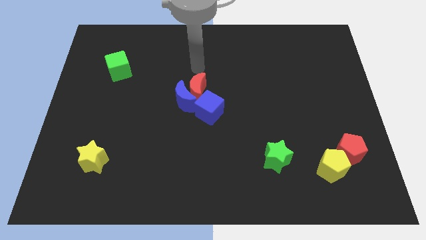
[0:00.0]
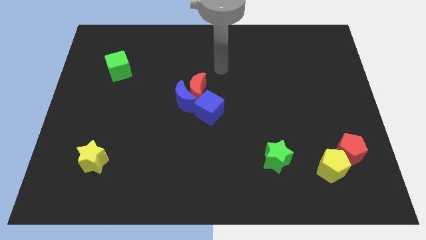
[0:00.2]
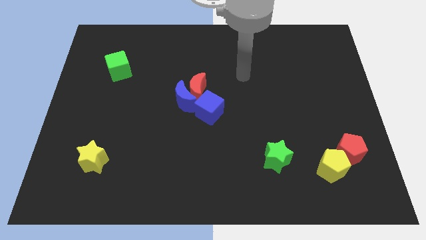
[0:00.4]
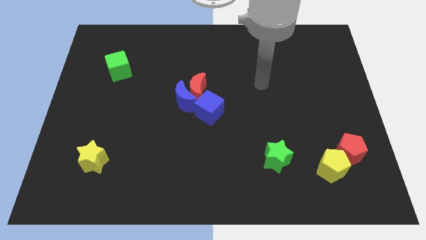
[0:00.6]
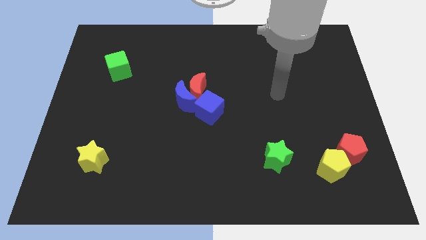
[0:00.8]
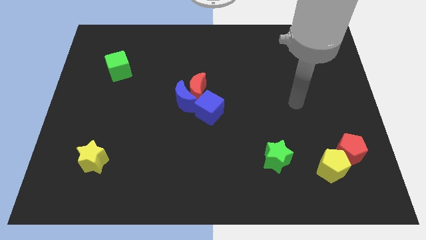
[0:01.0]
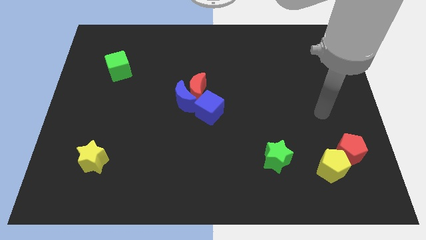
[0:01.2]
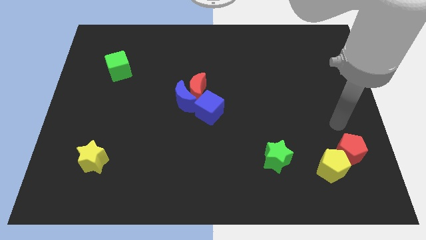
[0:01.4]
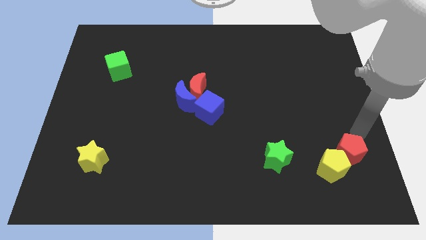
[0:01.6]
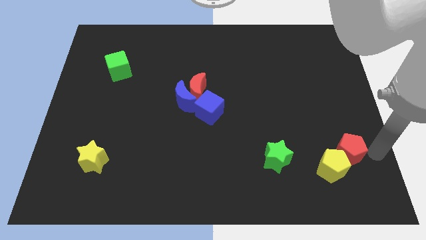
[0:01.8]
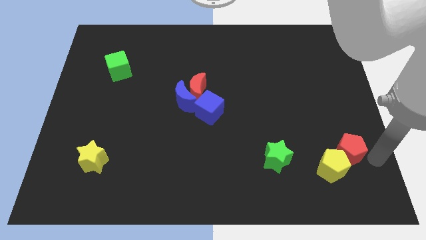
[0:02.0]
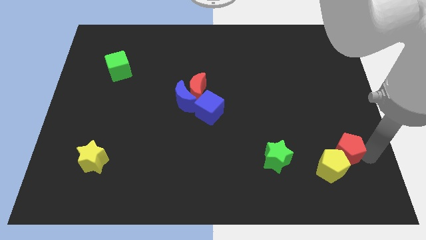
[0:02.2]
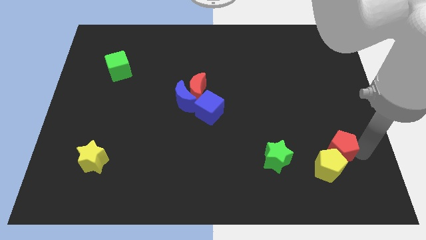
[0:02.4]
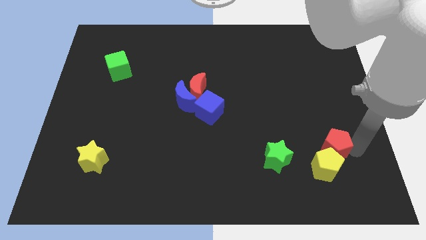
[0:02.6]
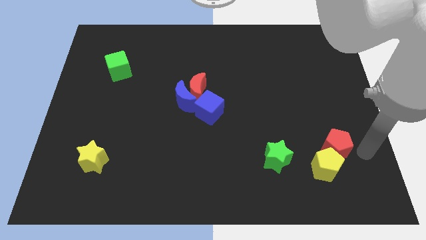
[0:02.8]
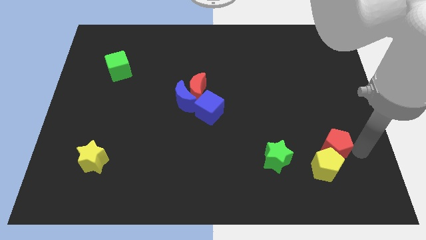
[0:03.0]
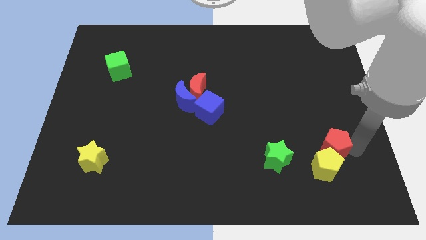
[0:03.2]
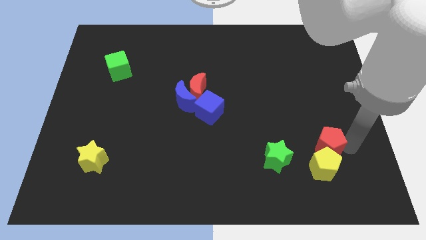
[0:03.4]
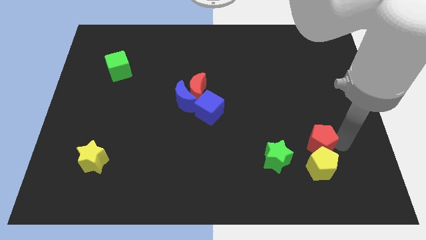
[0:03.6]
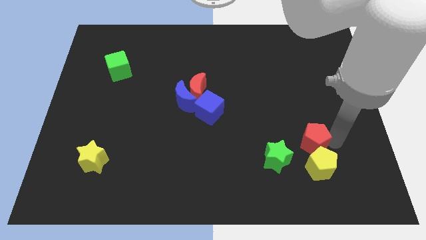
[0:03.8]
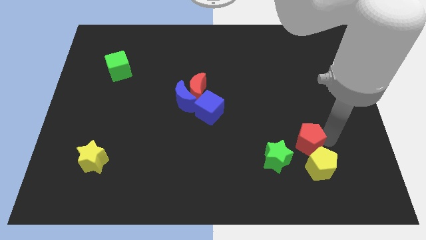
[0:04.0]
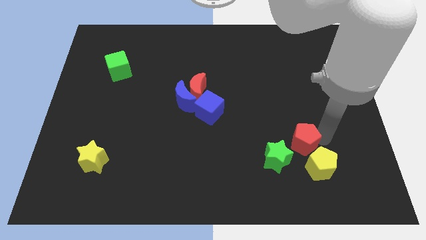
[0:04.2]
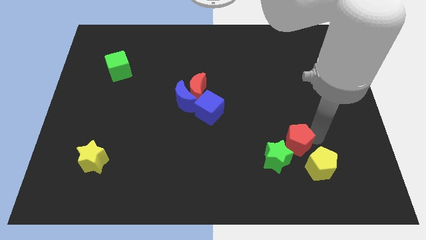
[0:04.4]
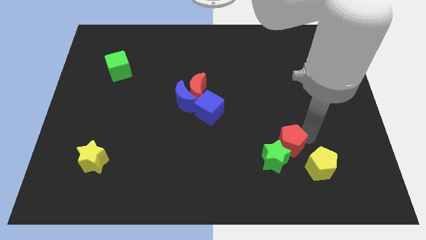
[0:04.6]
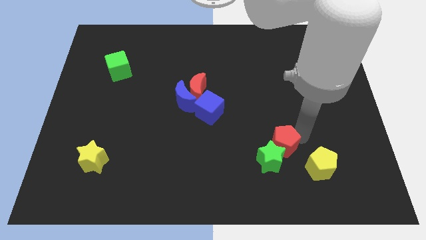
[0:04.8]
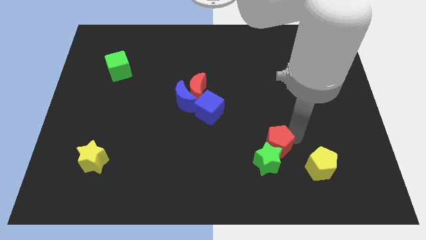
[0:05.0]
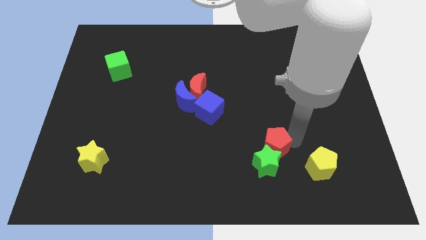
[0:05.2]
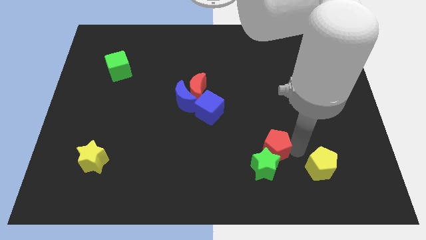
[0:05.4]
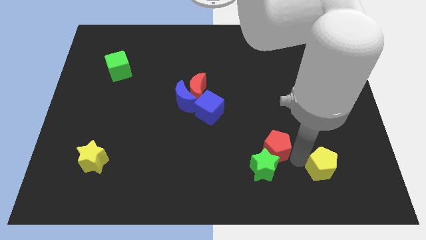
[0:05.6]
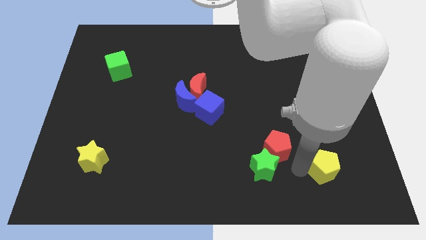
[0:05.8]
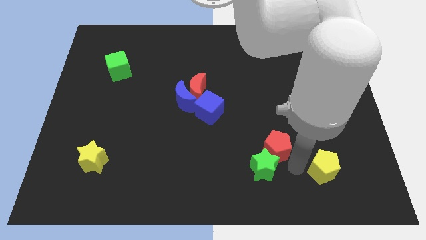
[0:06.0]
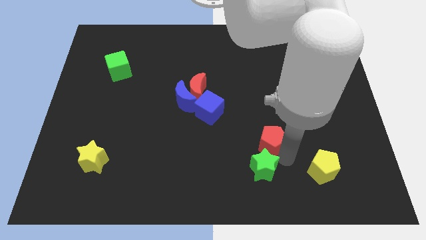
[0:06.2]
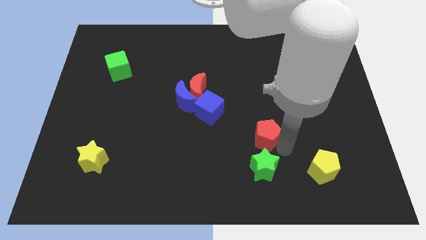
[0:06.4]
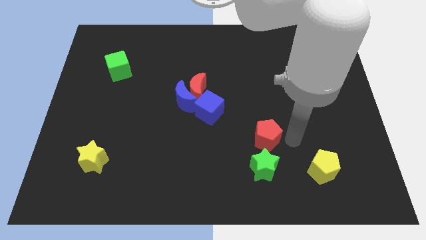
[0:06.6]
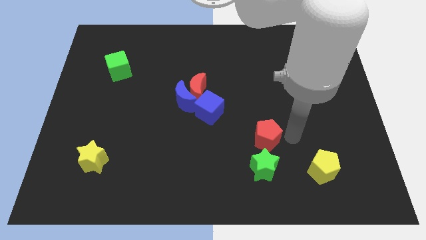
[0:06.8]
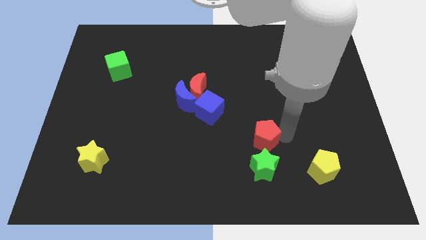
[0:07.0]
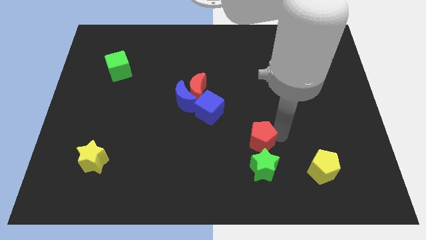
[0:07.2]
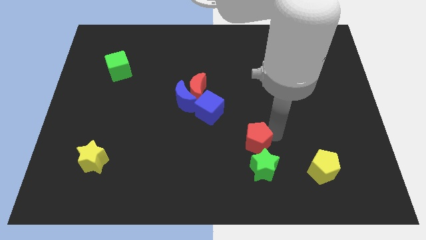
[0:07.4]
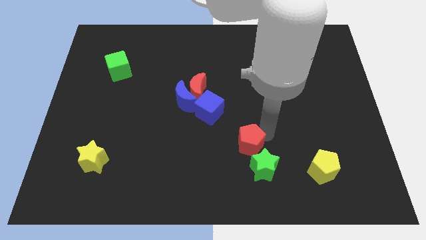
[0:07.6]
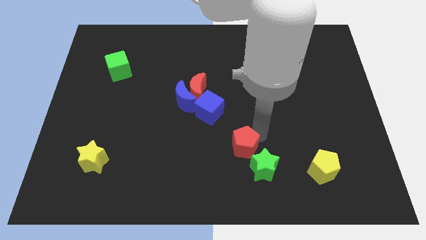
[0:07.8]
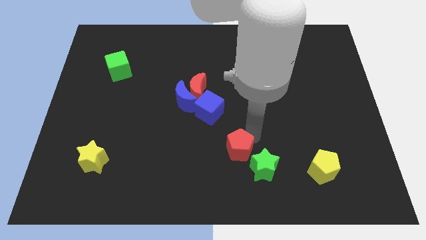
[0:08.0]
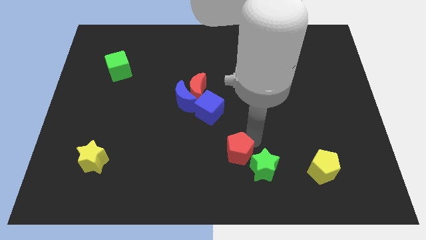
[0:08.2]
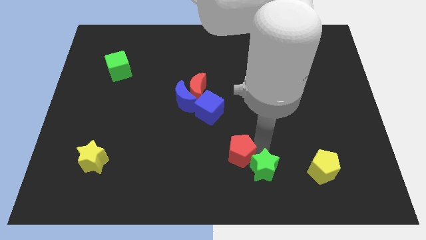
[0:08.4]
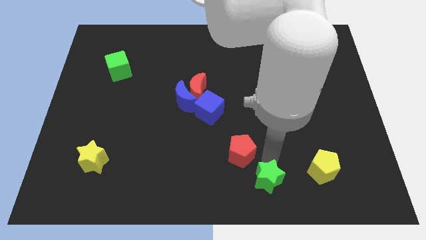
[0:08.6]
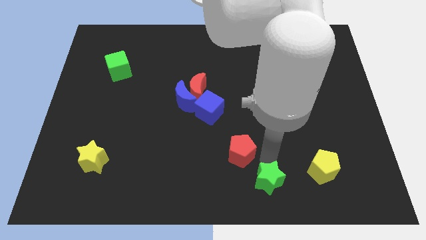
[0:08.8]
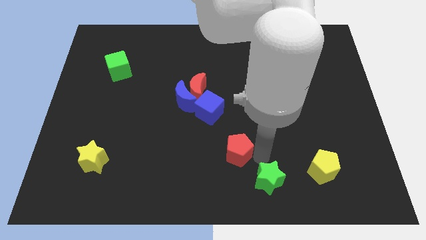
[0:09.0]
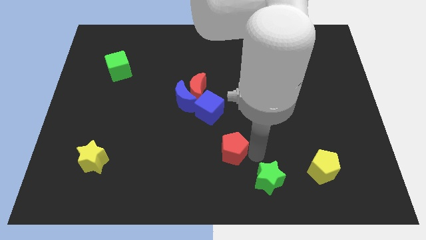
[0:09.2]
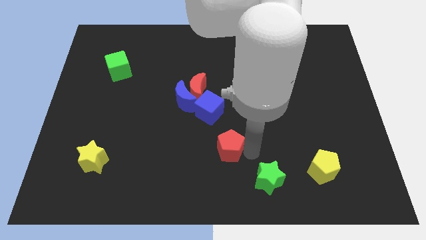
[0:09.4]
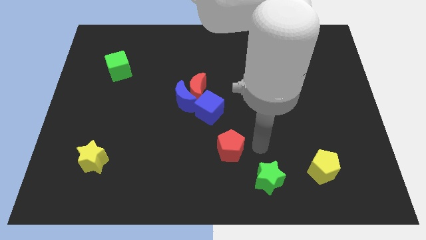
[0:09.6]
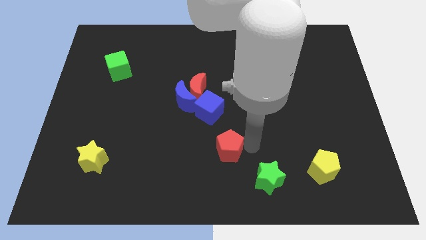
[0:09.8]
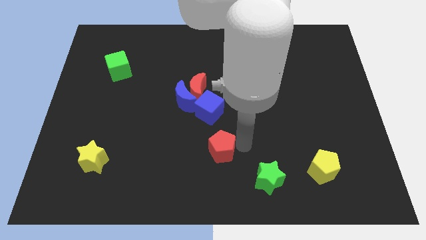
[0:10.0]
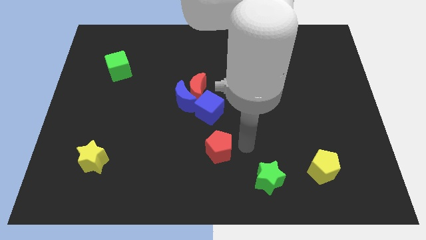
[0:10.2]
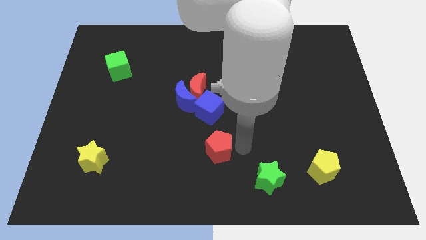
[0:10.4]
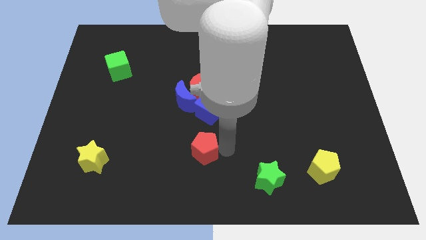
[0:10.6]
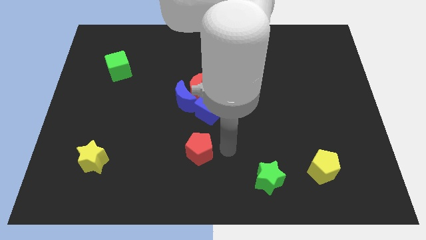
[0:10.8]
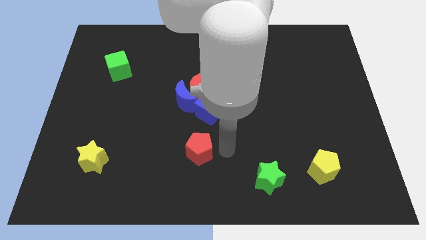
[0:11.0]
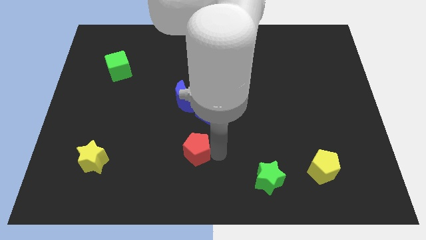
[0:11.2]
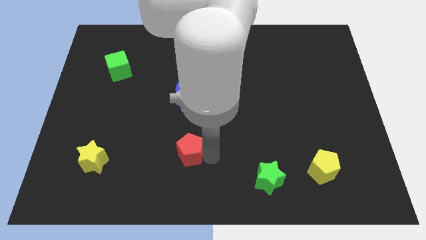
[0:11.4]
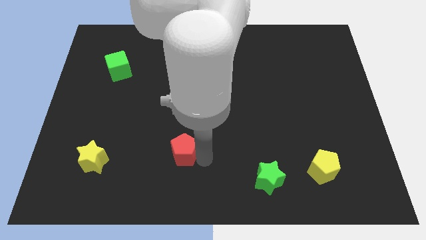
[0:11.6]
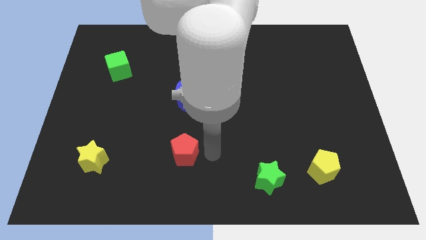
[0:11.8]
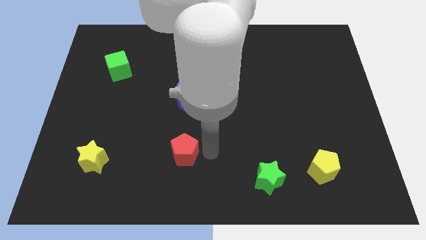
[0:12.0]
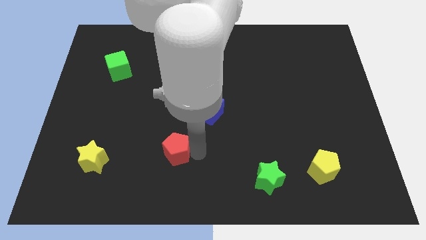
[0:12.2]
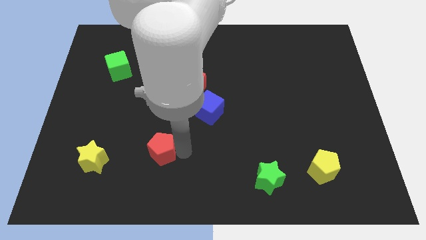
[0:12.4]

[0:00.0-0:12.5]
move the red pentagon to the right side of the yellow star

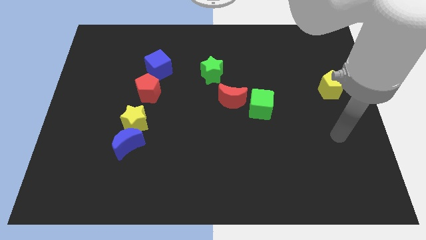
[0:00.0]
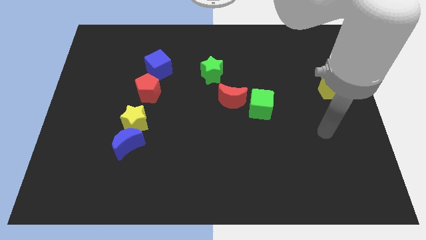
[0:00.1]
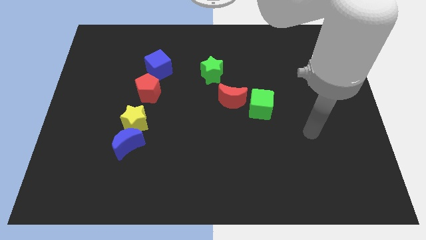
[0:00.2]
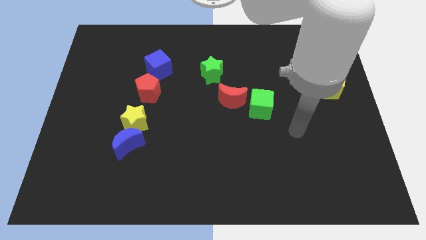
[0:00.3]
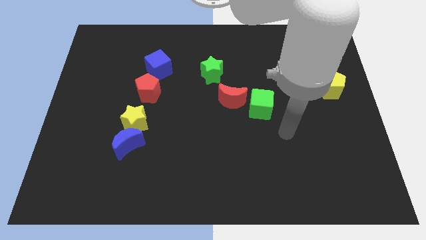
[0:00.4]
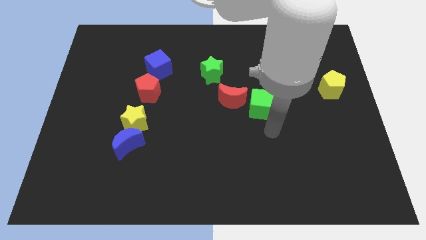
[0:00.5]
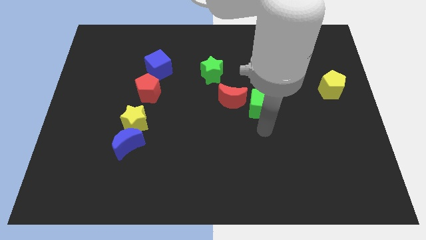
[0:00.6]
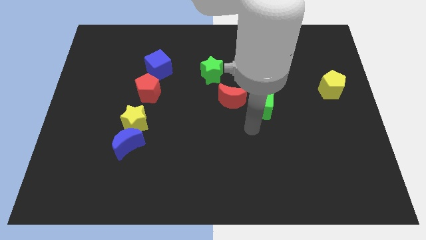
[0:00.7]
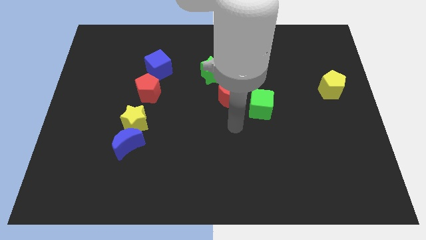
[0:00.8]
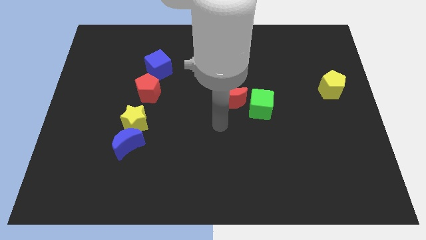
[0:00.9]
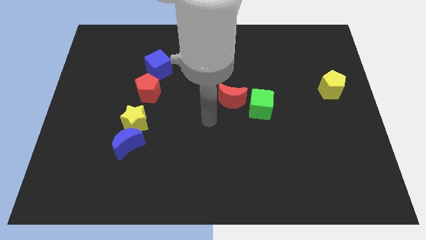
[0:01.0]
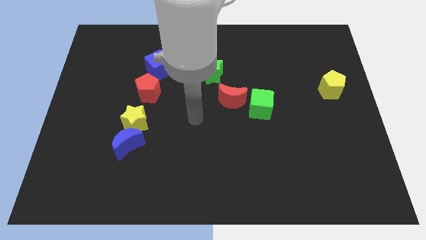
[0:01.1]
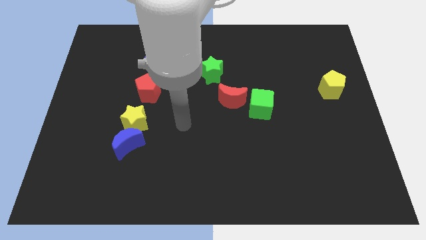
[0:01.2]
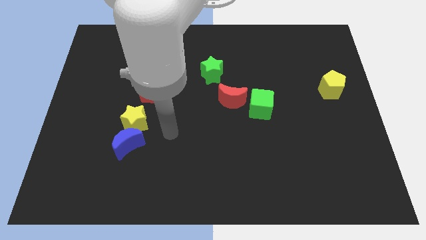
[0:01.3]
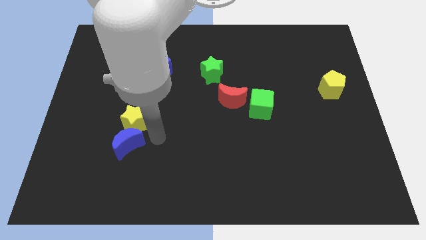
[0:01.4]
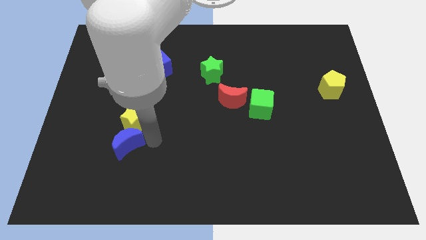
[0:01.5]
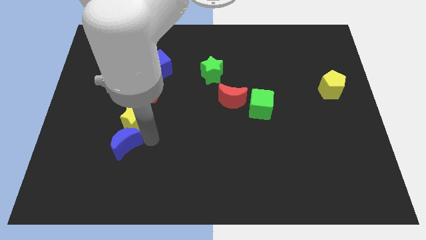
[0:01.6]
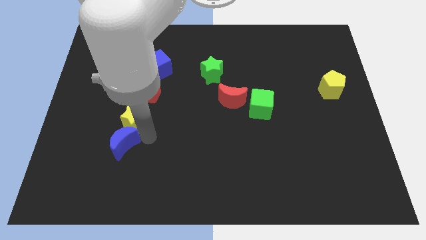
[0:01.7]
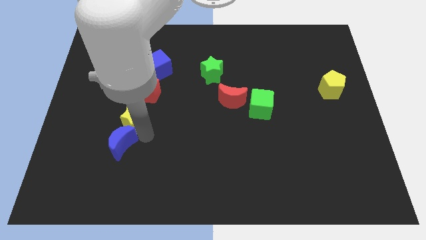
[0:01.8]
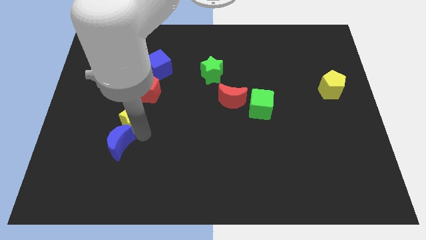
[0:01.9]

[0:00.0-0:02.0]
put the yellow star to the bottom left of the red pentagon
